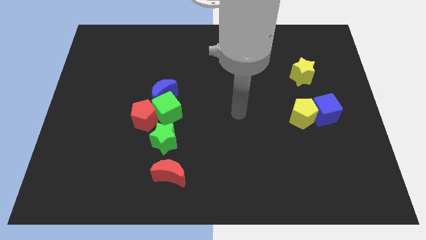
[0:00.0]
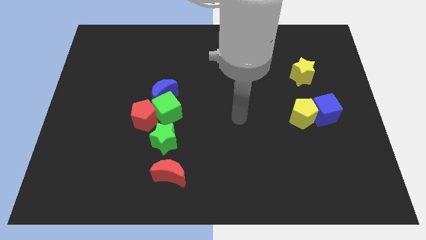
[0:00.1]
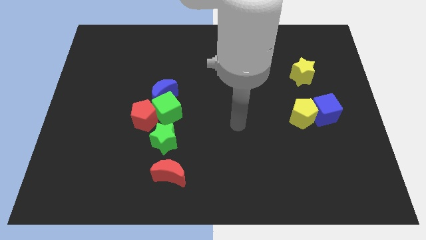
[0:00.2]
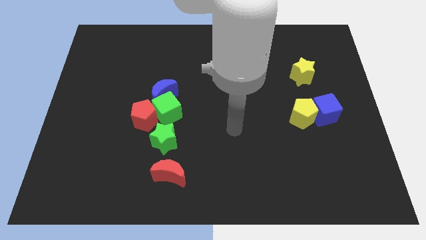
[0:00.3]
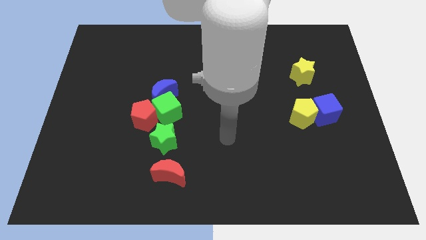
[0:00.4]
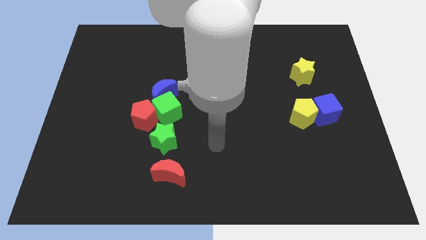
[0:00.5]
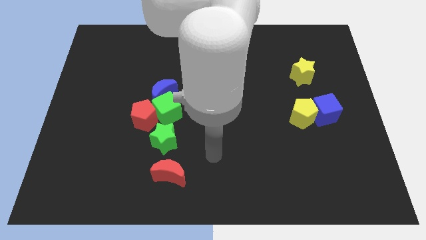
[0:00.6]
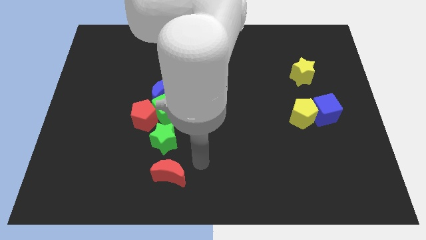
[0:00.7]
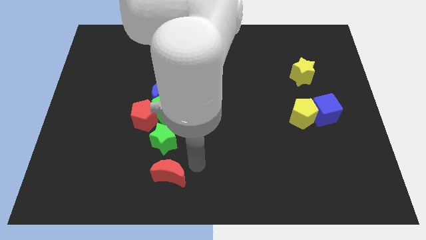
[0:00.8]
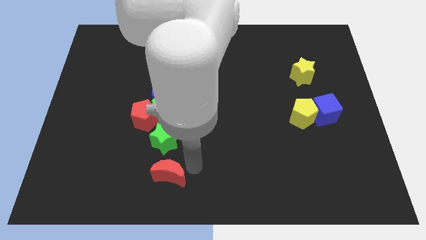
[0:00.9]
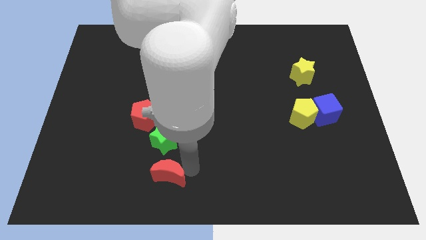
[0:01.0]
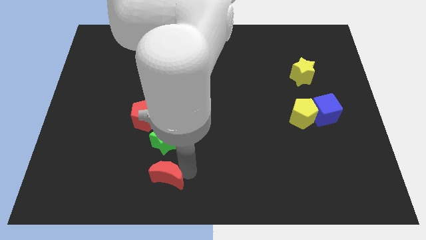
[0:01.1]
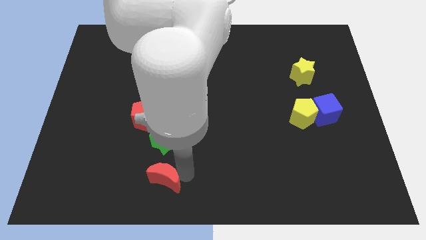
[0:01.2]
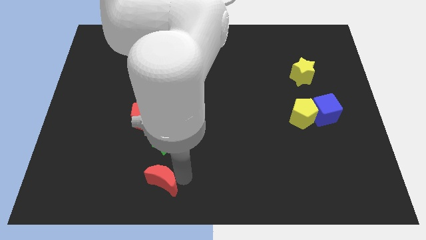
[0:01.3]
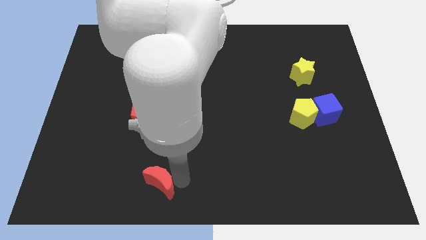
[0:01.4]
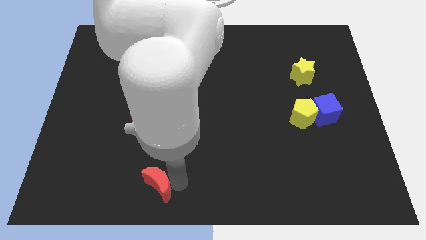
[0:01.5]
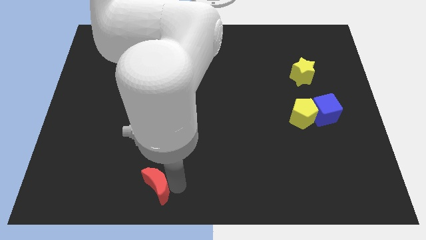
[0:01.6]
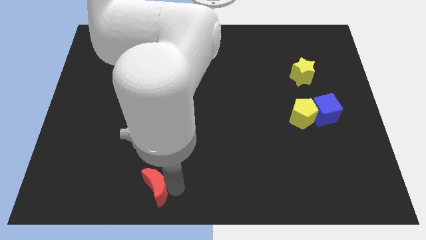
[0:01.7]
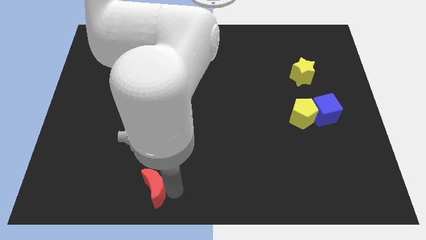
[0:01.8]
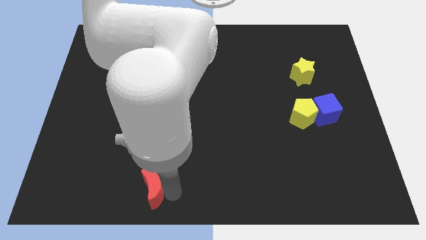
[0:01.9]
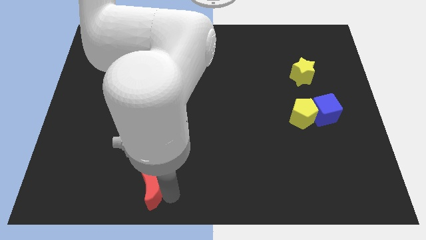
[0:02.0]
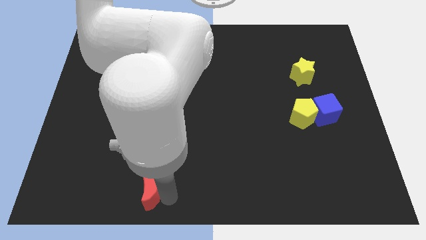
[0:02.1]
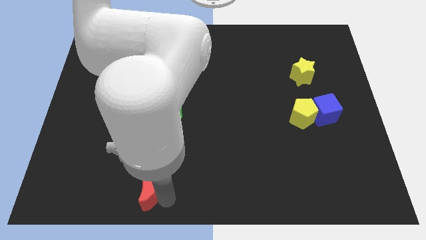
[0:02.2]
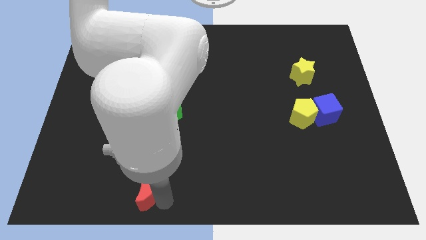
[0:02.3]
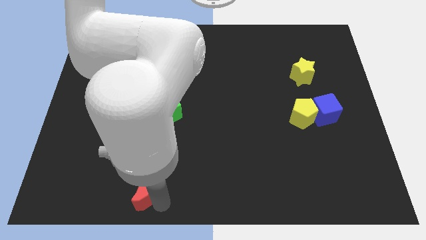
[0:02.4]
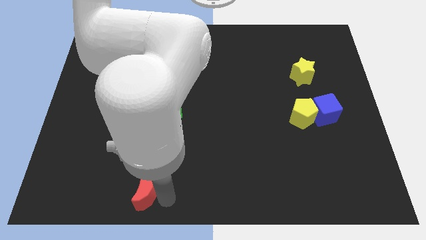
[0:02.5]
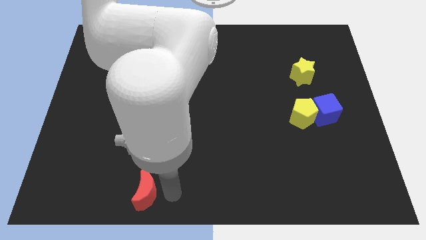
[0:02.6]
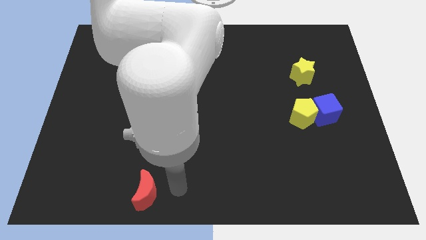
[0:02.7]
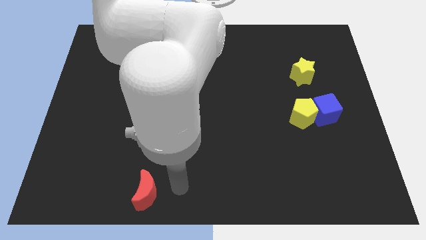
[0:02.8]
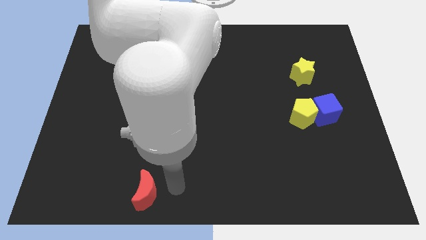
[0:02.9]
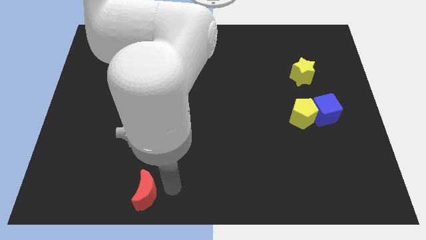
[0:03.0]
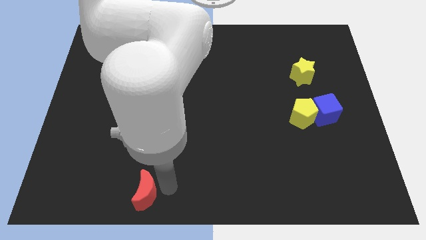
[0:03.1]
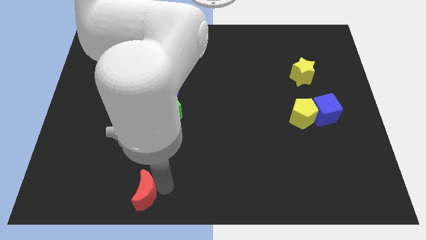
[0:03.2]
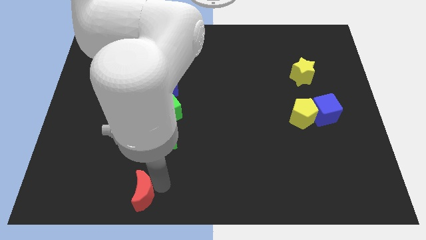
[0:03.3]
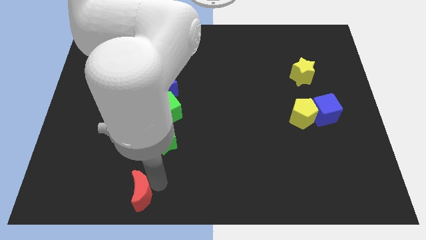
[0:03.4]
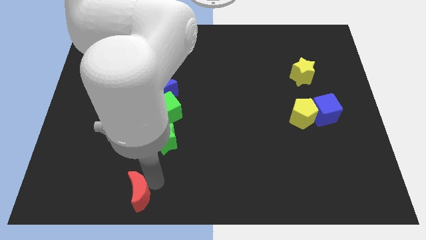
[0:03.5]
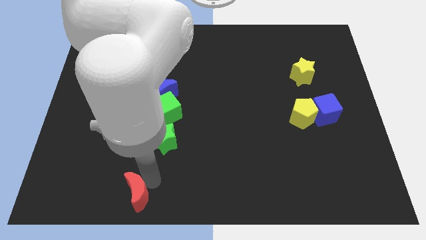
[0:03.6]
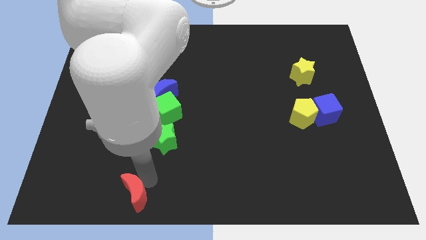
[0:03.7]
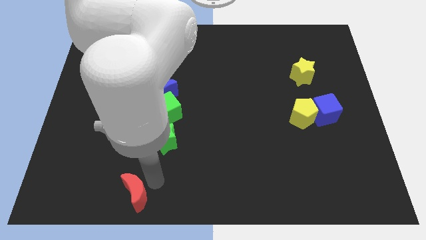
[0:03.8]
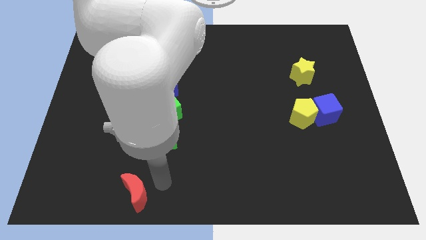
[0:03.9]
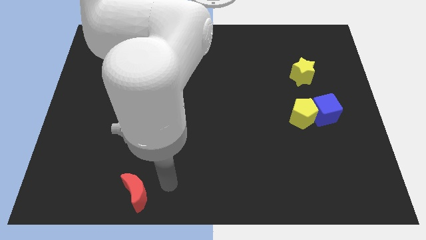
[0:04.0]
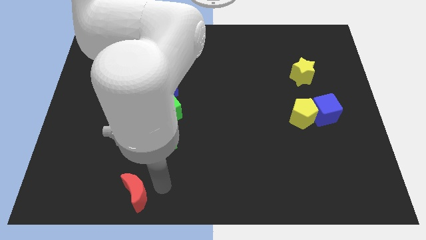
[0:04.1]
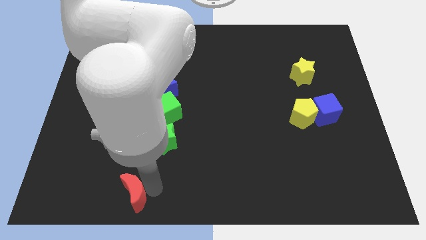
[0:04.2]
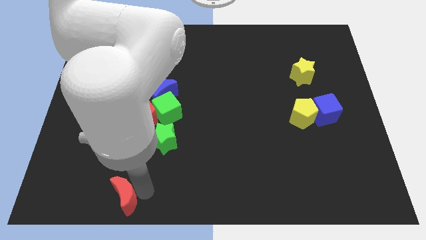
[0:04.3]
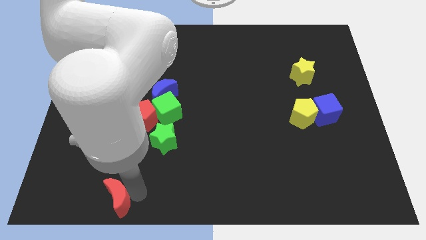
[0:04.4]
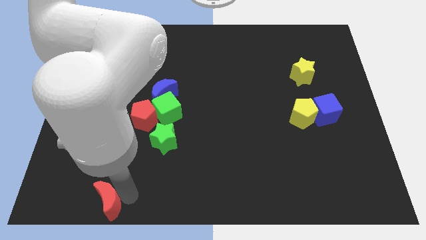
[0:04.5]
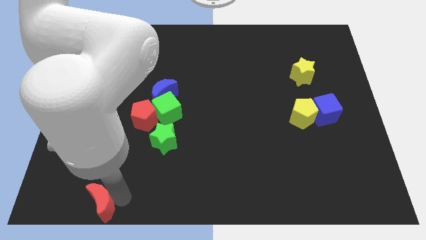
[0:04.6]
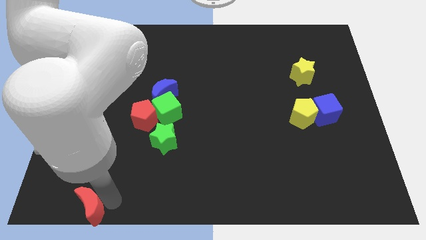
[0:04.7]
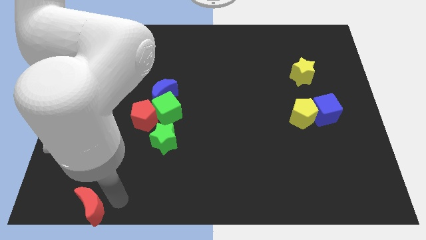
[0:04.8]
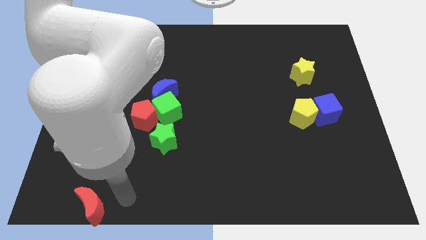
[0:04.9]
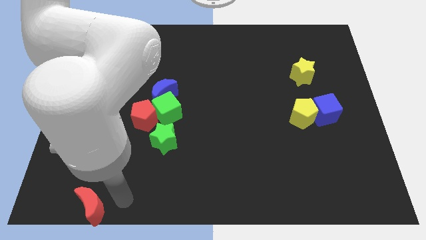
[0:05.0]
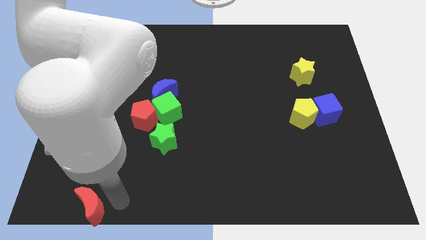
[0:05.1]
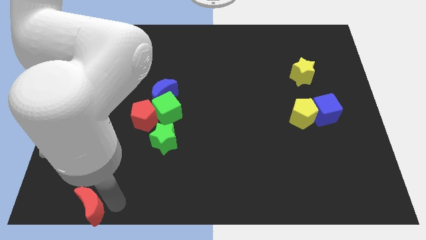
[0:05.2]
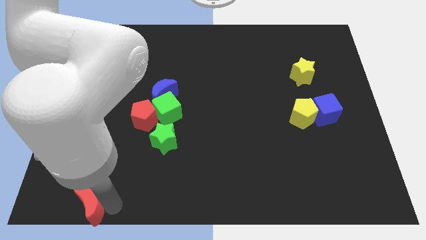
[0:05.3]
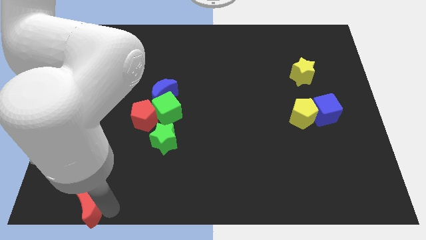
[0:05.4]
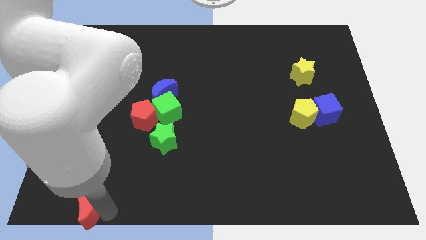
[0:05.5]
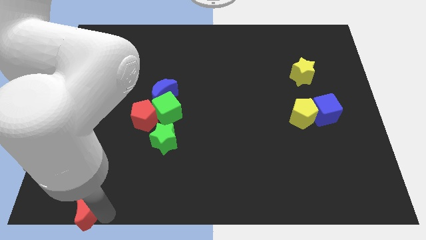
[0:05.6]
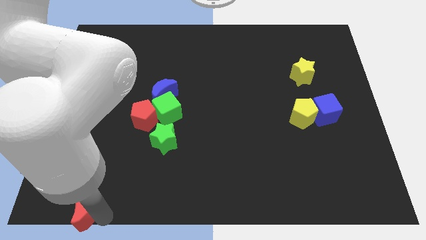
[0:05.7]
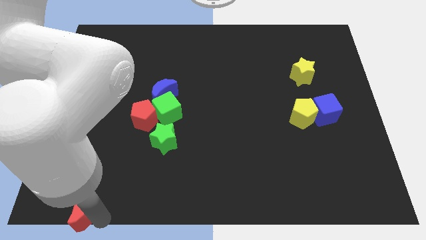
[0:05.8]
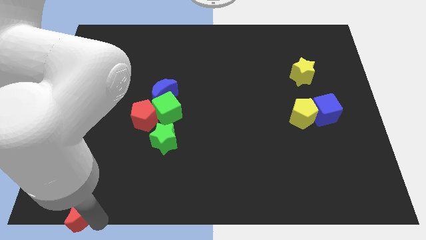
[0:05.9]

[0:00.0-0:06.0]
slide the red moon to the lower left corner

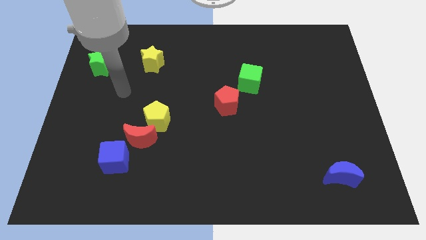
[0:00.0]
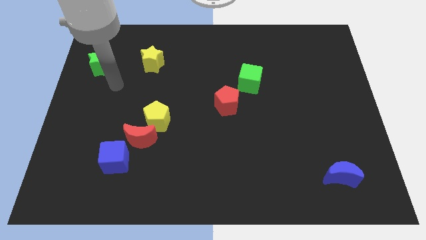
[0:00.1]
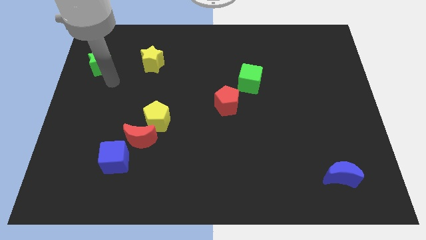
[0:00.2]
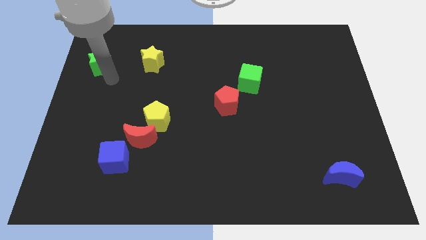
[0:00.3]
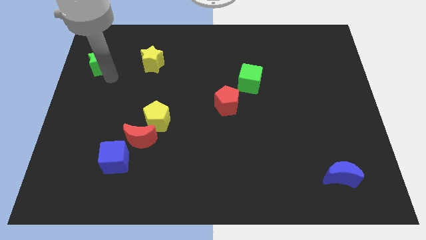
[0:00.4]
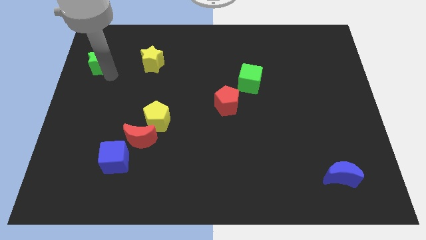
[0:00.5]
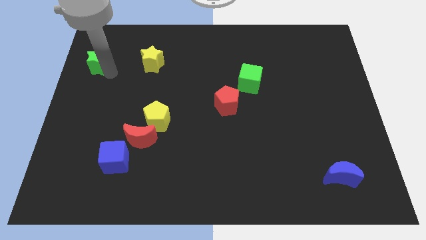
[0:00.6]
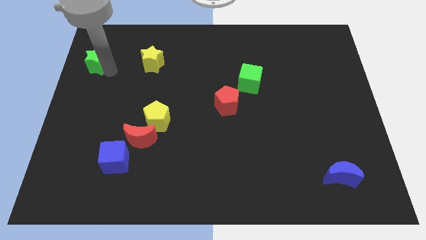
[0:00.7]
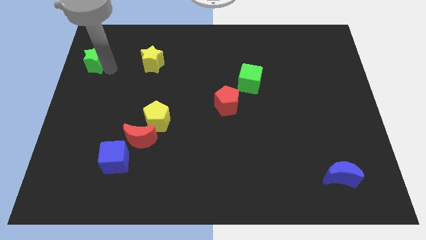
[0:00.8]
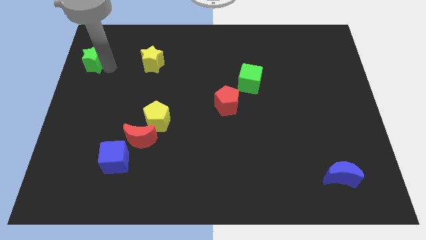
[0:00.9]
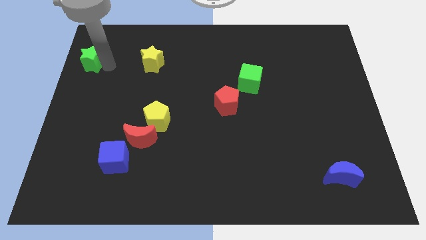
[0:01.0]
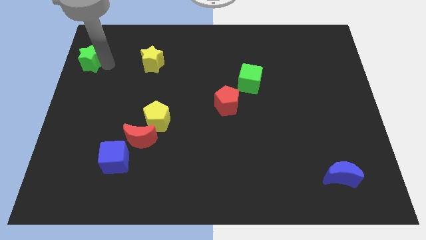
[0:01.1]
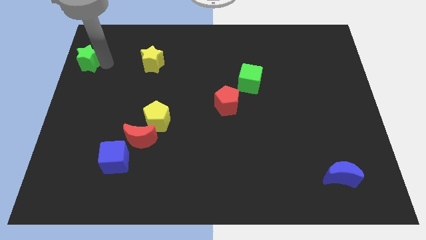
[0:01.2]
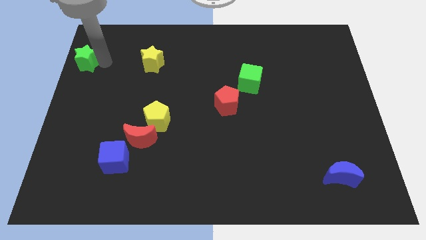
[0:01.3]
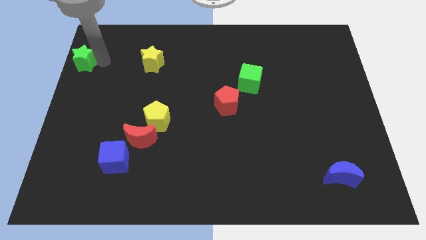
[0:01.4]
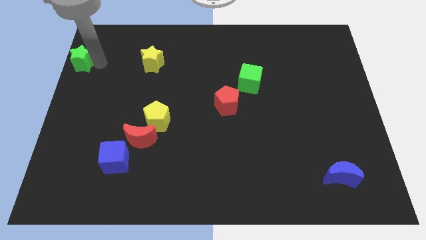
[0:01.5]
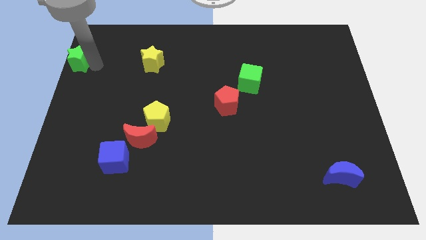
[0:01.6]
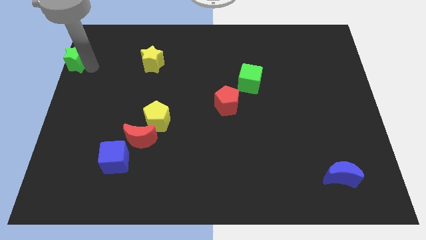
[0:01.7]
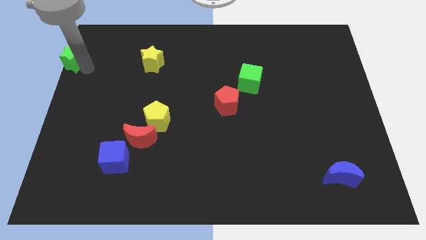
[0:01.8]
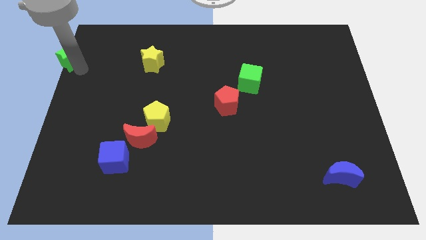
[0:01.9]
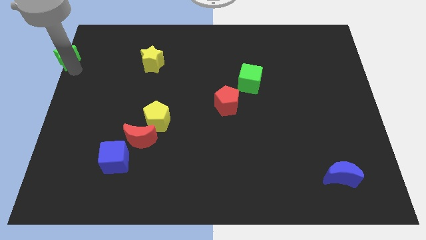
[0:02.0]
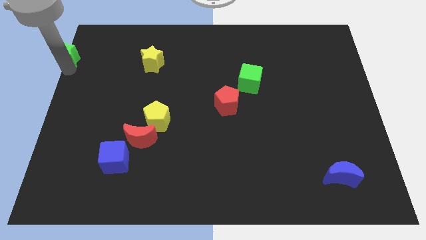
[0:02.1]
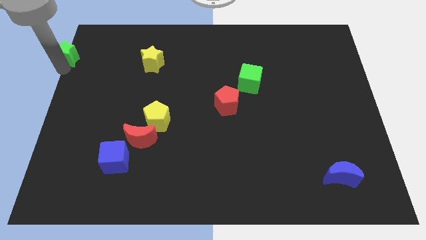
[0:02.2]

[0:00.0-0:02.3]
move the green star to the top left

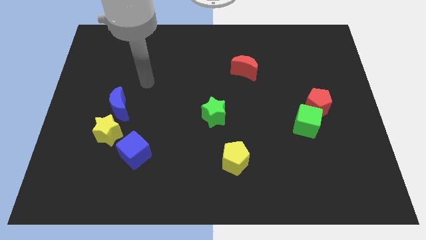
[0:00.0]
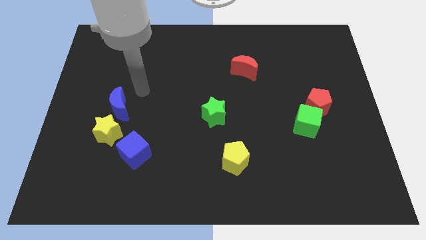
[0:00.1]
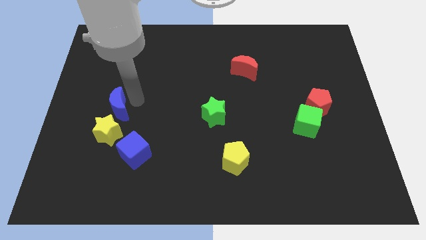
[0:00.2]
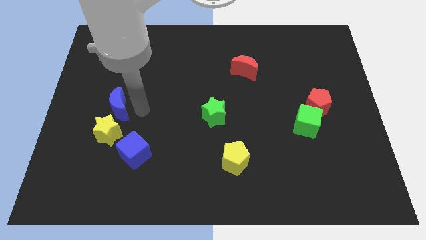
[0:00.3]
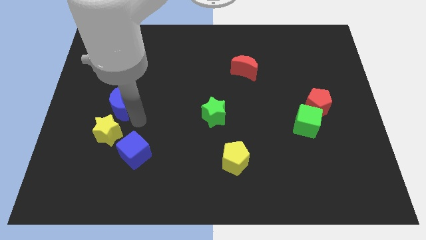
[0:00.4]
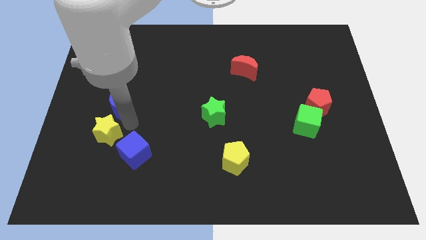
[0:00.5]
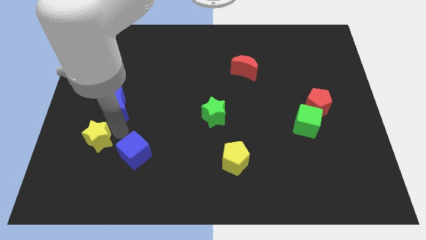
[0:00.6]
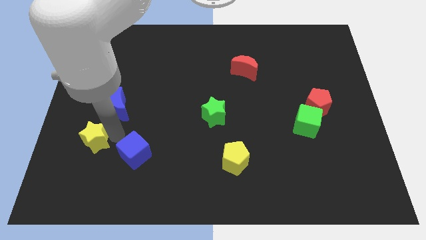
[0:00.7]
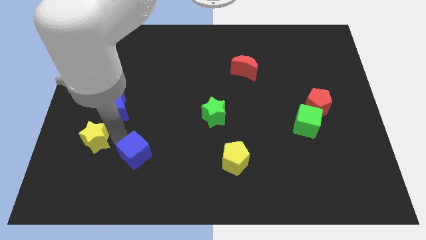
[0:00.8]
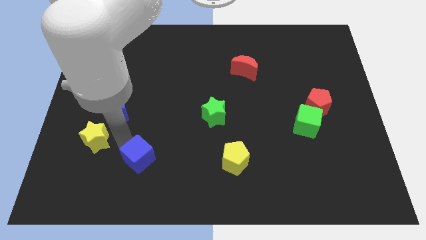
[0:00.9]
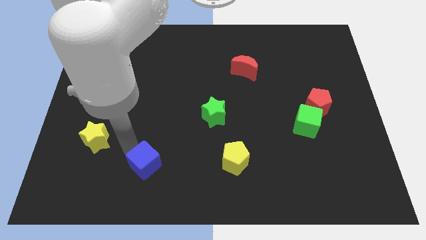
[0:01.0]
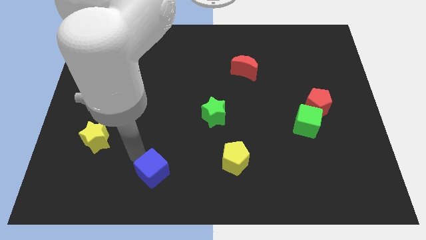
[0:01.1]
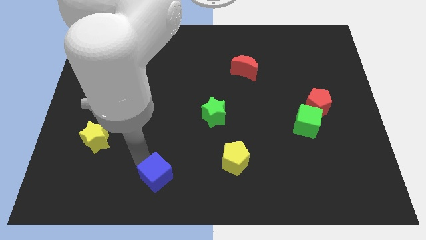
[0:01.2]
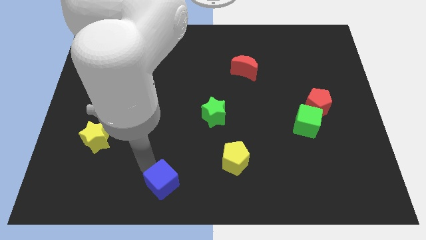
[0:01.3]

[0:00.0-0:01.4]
put the blue cube to the bottom side
